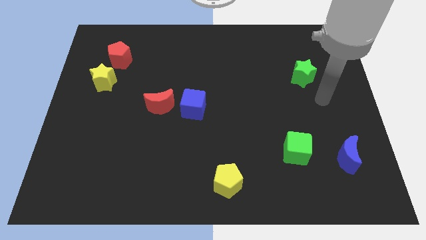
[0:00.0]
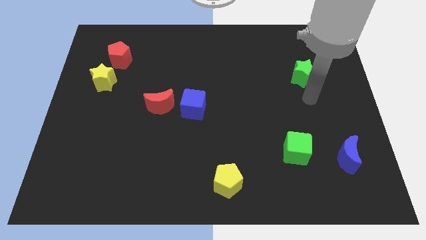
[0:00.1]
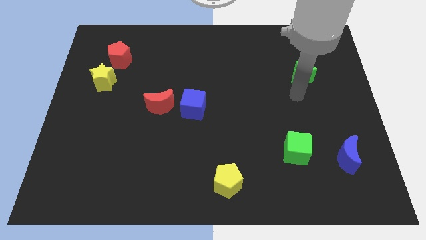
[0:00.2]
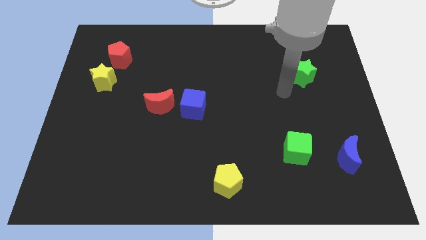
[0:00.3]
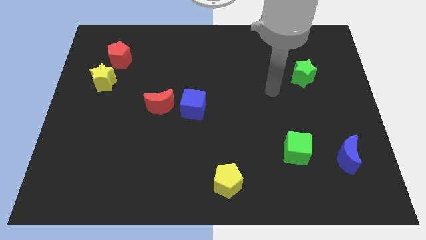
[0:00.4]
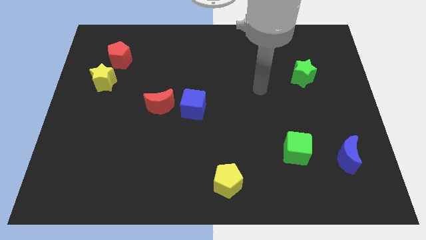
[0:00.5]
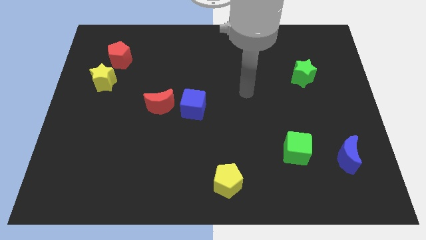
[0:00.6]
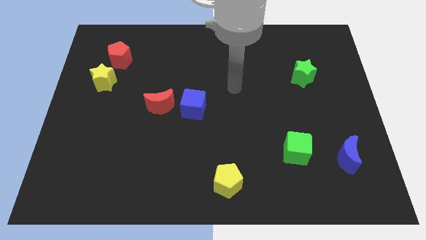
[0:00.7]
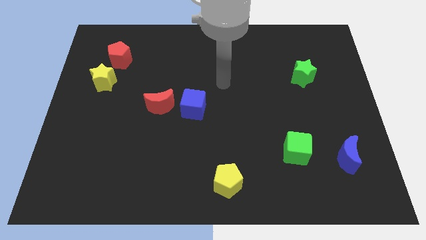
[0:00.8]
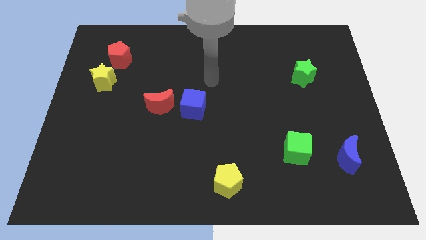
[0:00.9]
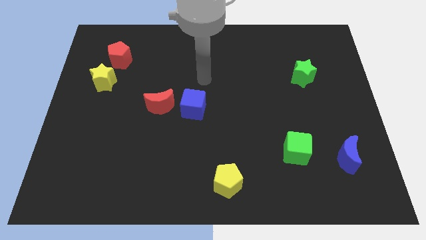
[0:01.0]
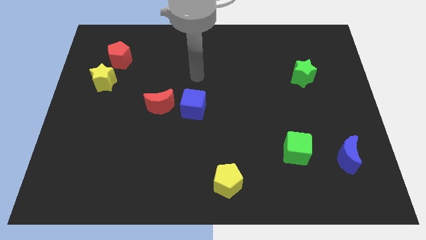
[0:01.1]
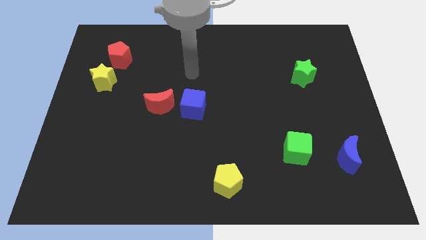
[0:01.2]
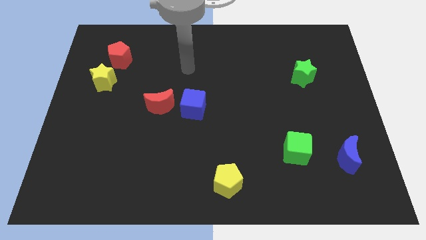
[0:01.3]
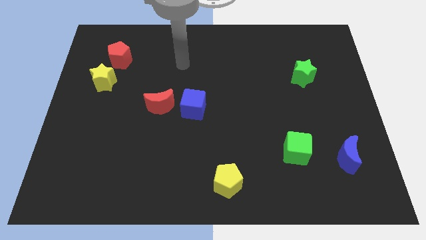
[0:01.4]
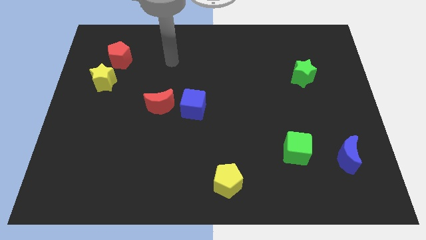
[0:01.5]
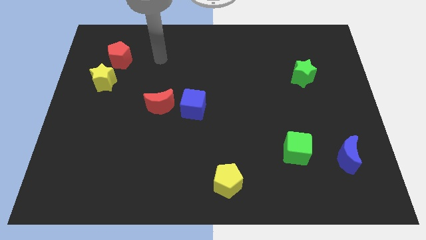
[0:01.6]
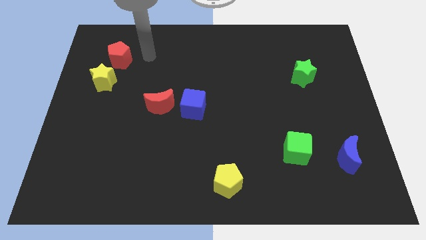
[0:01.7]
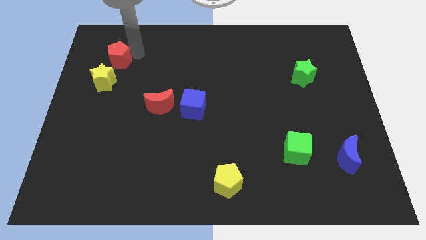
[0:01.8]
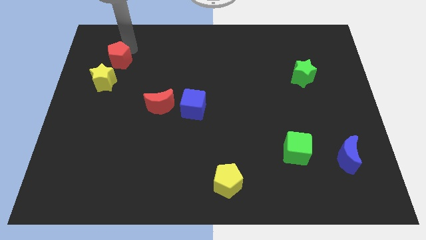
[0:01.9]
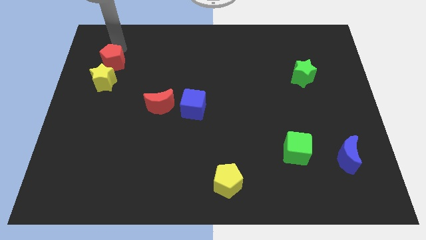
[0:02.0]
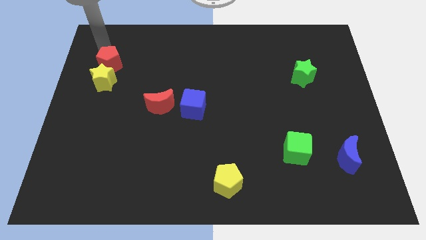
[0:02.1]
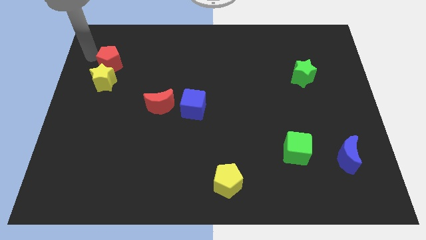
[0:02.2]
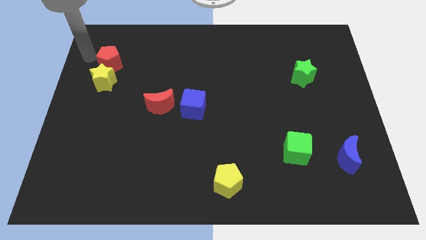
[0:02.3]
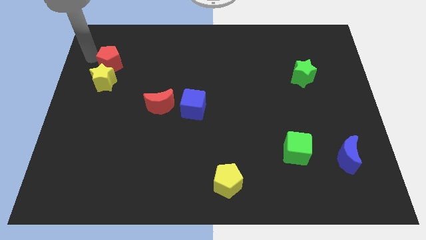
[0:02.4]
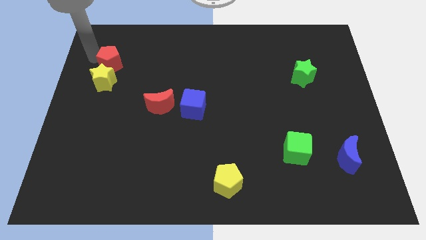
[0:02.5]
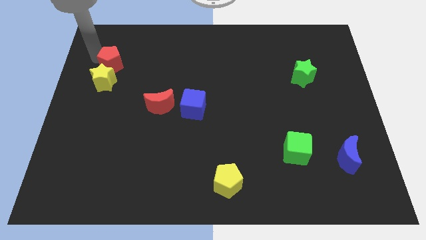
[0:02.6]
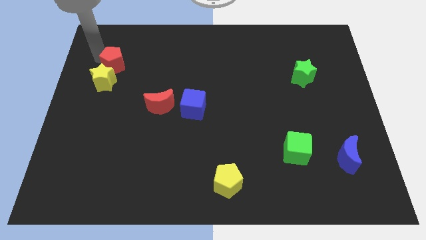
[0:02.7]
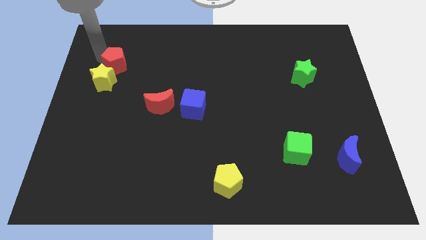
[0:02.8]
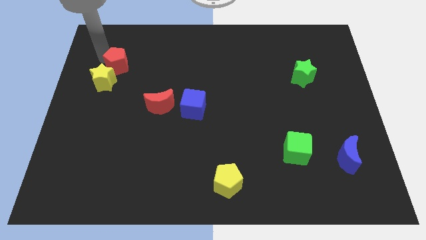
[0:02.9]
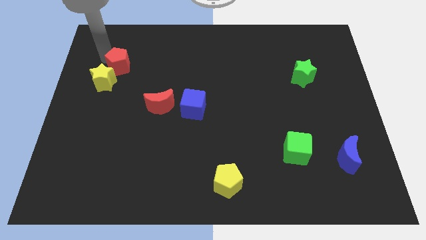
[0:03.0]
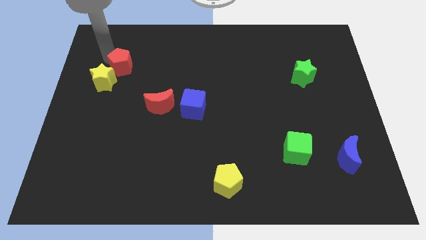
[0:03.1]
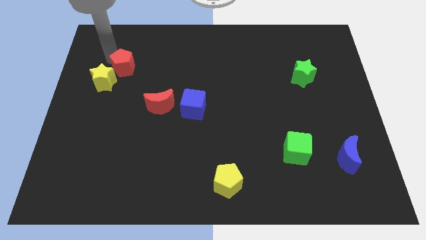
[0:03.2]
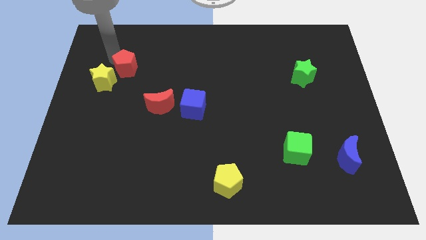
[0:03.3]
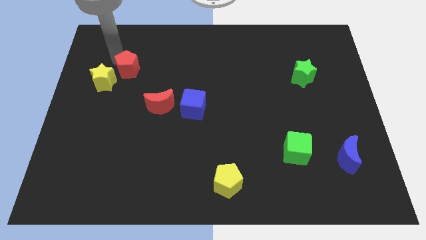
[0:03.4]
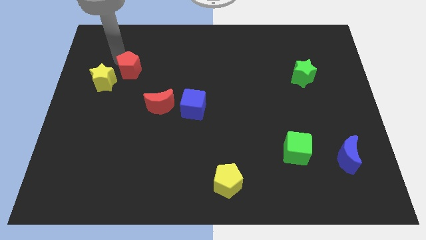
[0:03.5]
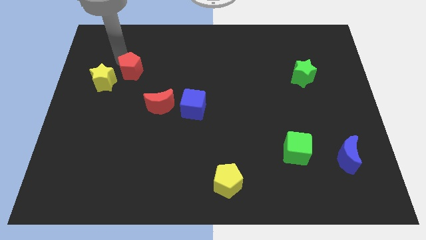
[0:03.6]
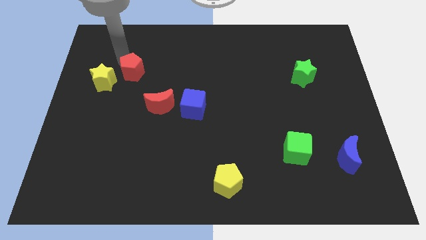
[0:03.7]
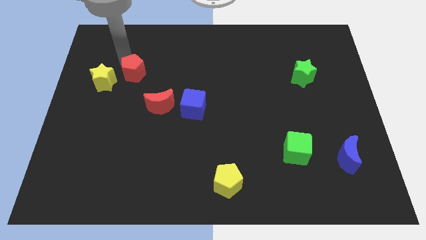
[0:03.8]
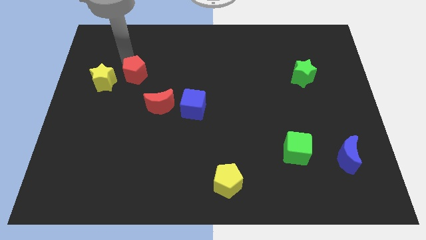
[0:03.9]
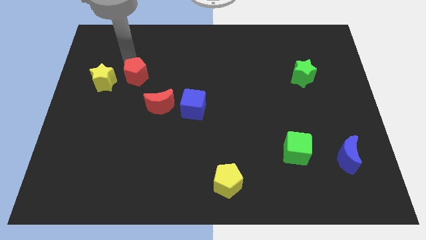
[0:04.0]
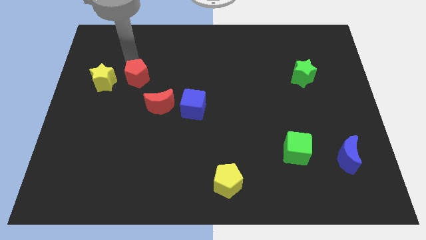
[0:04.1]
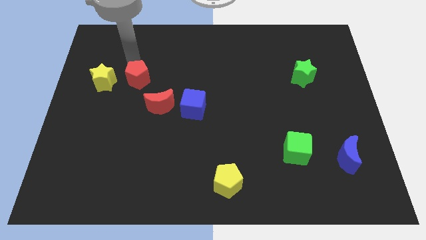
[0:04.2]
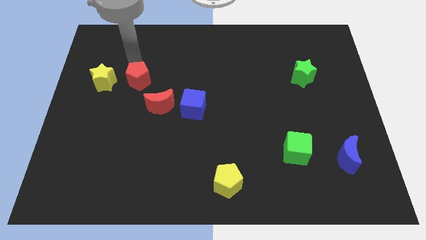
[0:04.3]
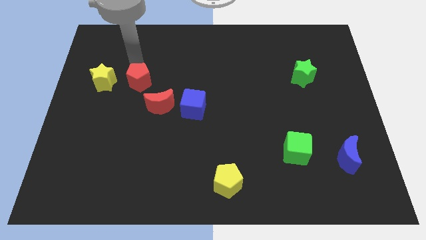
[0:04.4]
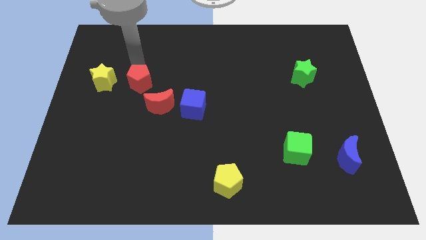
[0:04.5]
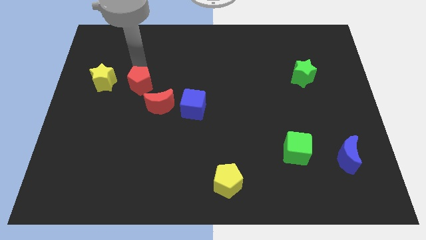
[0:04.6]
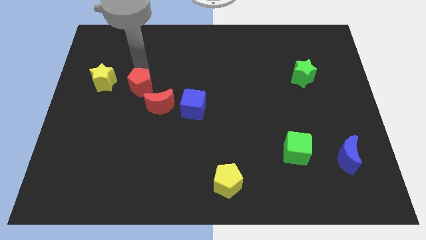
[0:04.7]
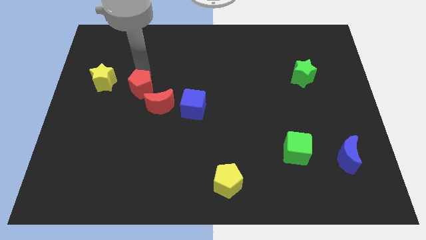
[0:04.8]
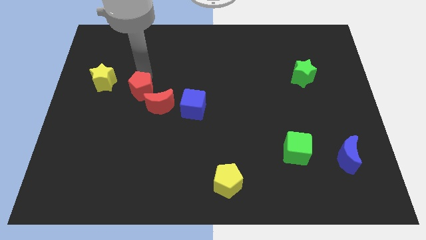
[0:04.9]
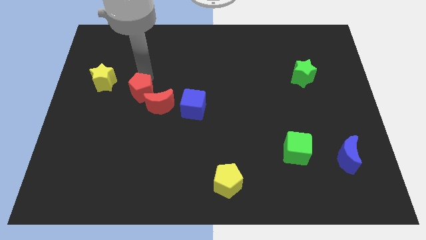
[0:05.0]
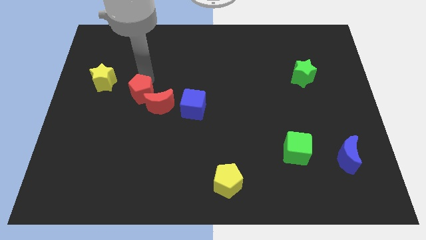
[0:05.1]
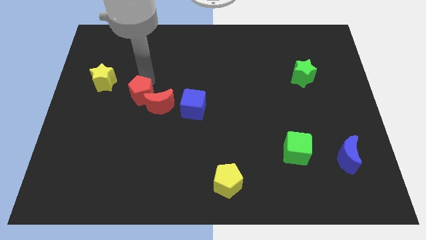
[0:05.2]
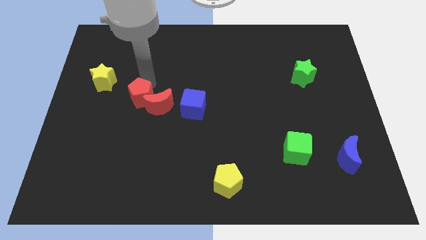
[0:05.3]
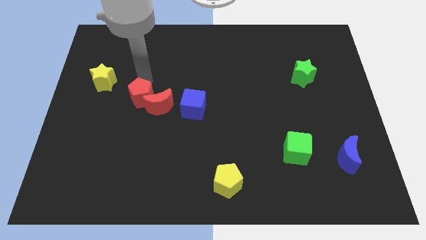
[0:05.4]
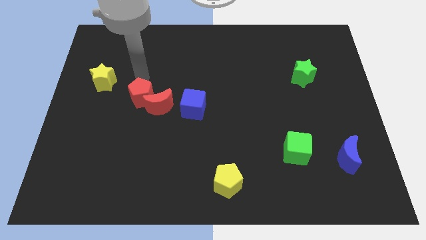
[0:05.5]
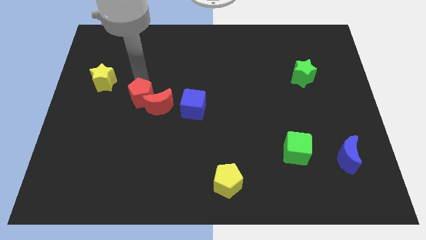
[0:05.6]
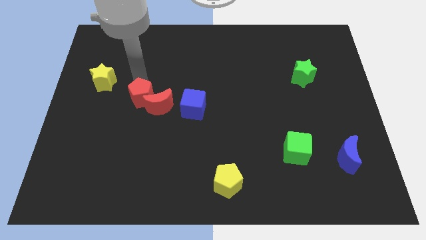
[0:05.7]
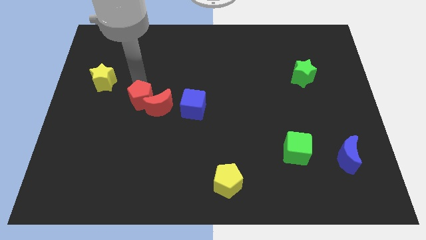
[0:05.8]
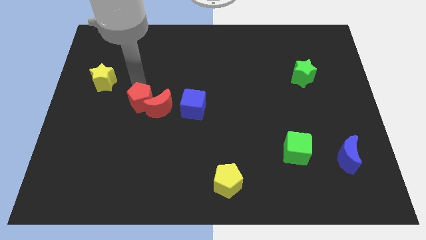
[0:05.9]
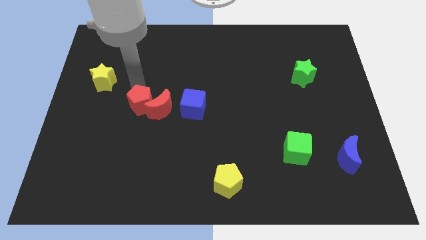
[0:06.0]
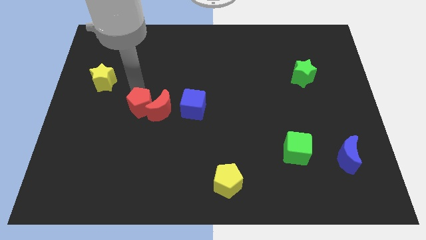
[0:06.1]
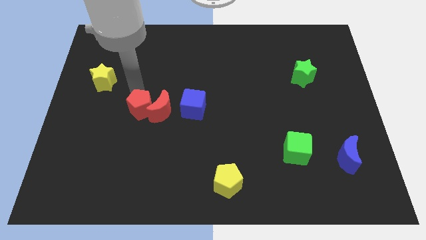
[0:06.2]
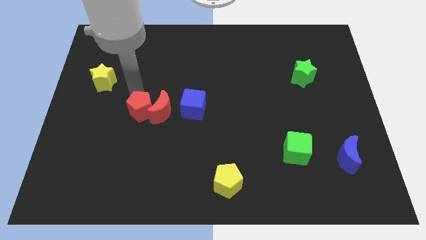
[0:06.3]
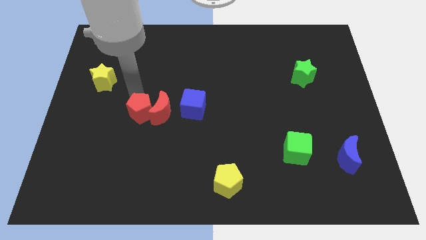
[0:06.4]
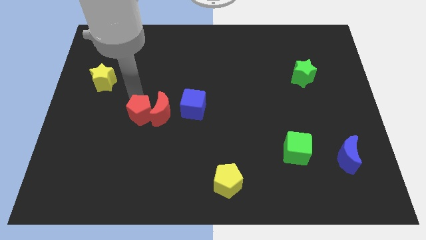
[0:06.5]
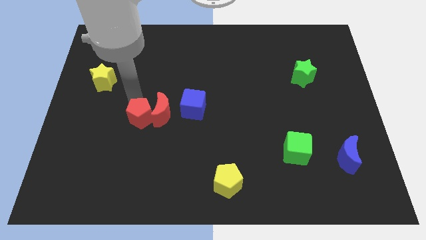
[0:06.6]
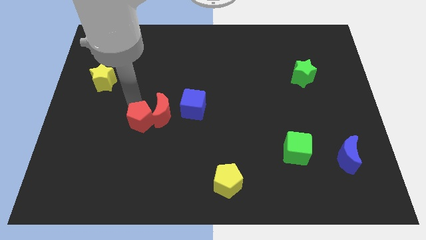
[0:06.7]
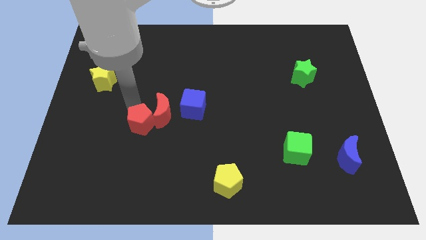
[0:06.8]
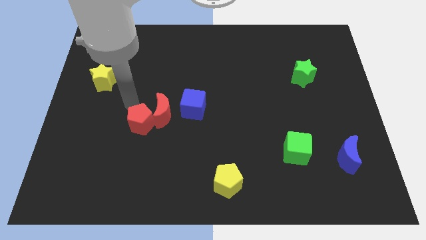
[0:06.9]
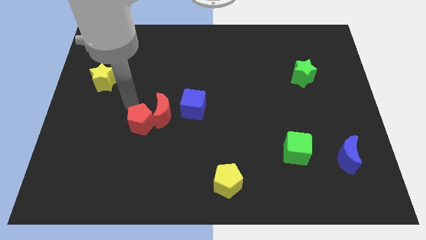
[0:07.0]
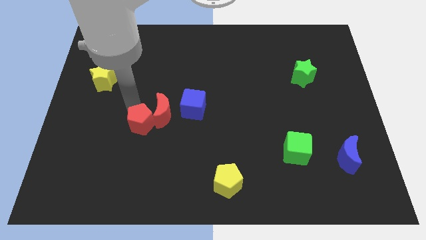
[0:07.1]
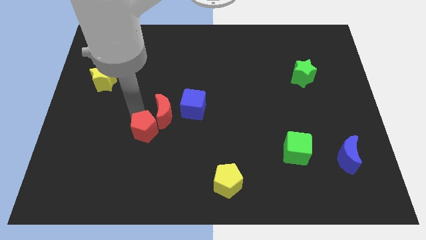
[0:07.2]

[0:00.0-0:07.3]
push the red pentagon to the bottom side of the red moon

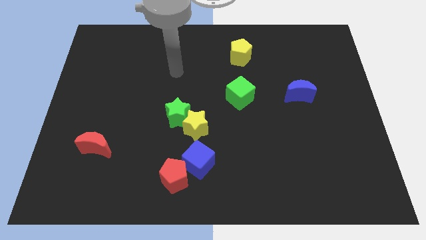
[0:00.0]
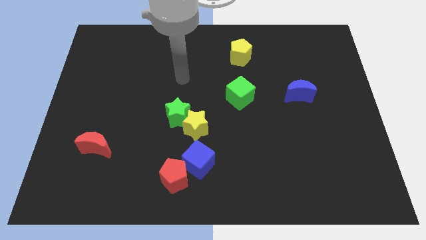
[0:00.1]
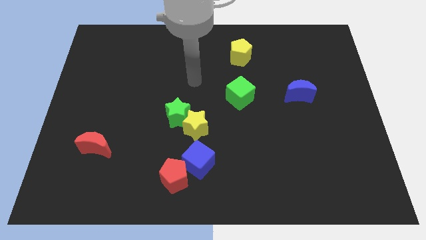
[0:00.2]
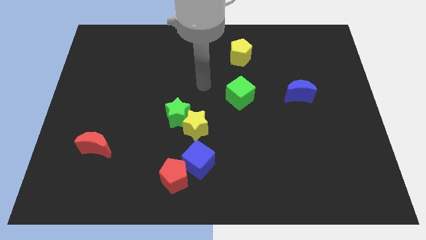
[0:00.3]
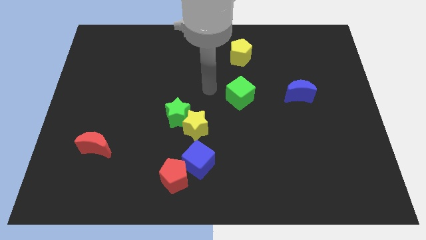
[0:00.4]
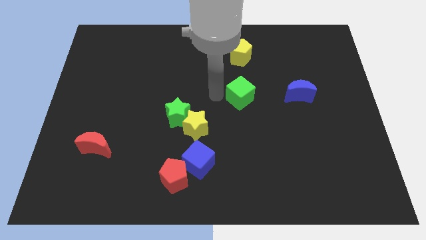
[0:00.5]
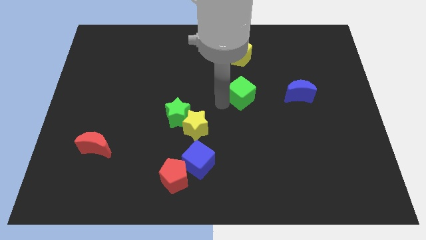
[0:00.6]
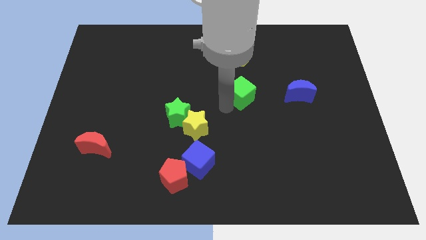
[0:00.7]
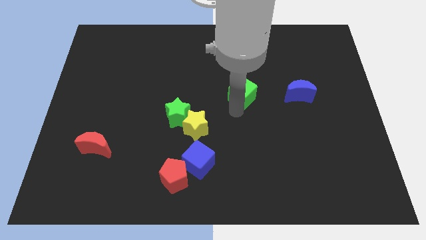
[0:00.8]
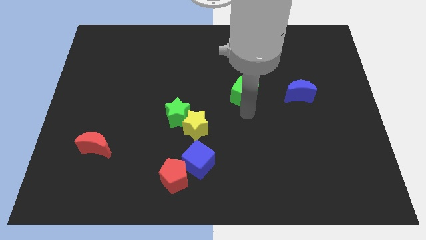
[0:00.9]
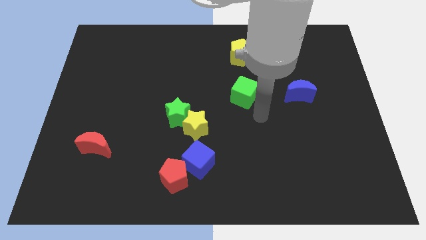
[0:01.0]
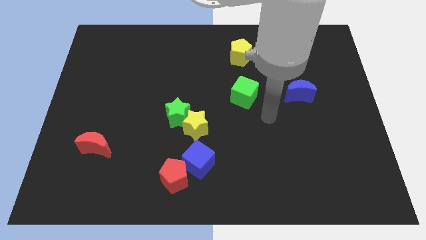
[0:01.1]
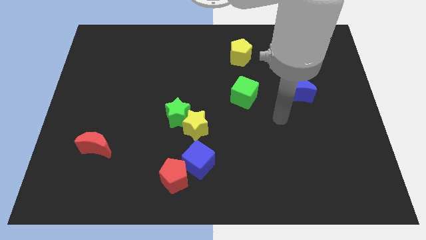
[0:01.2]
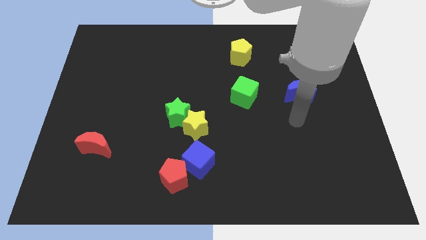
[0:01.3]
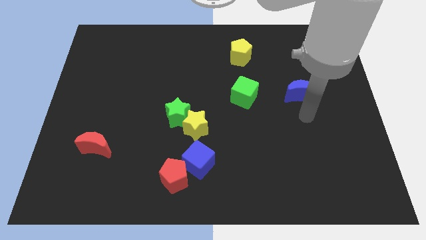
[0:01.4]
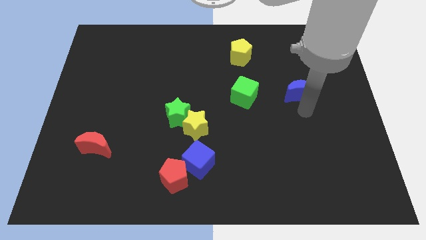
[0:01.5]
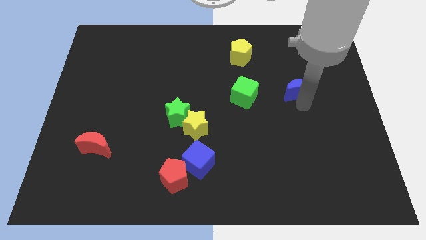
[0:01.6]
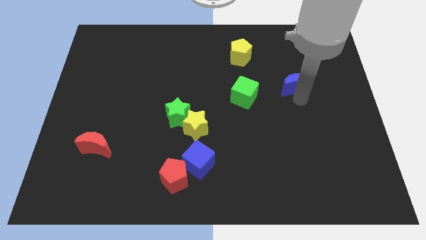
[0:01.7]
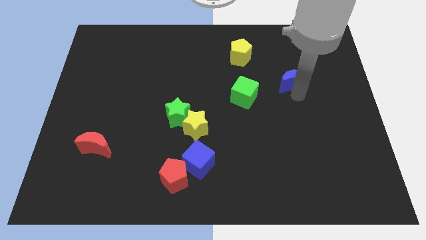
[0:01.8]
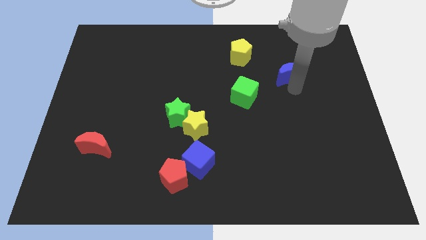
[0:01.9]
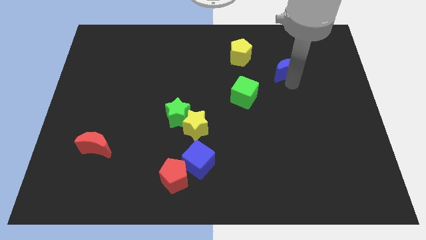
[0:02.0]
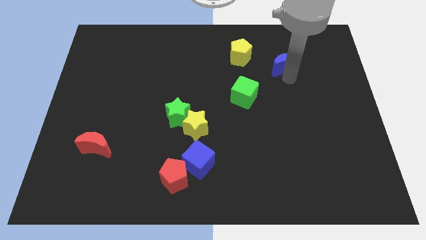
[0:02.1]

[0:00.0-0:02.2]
put the blue moon right of the yellow pentagon
